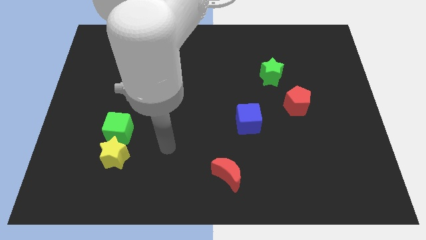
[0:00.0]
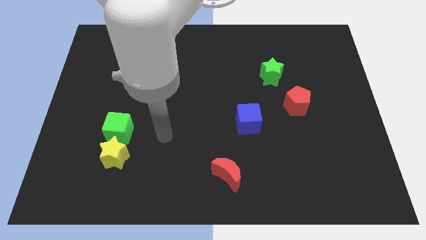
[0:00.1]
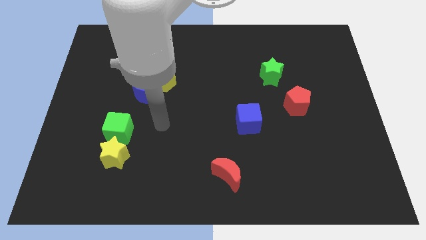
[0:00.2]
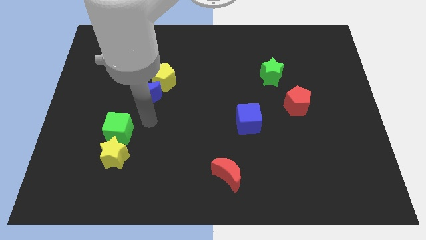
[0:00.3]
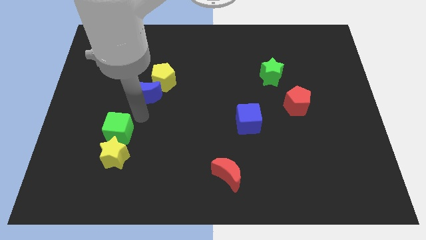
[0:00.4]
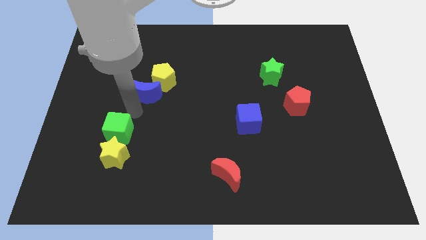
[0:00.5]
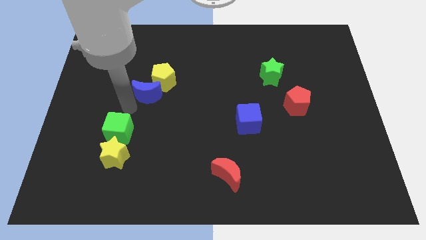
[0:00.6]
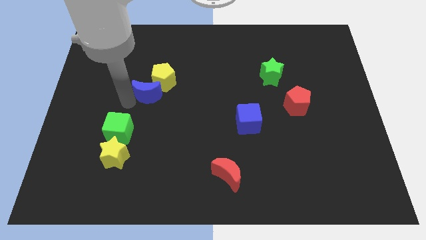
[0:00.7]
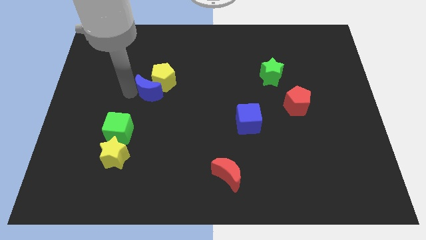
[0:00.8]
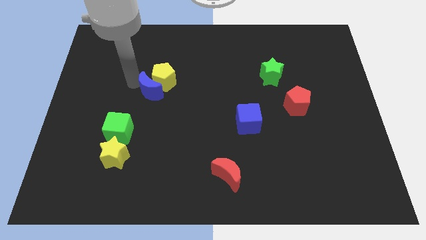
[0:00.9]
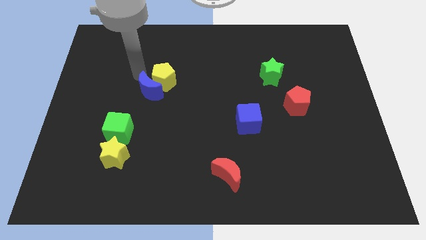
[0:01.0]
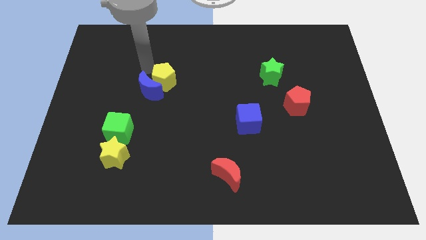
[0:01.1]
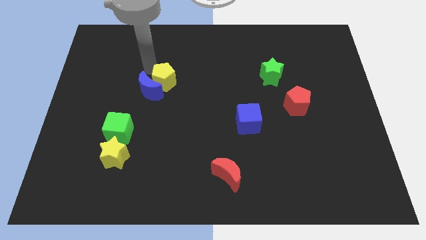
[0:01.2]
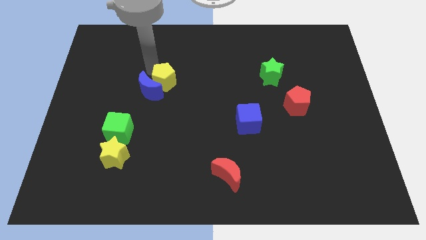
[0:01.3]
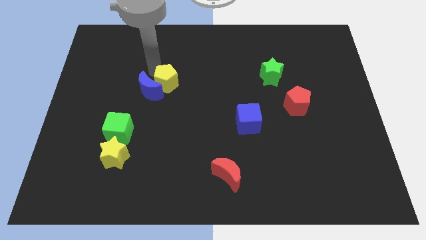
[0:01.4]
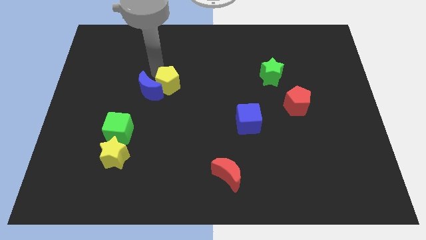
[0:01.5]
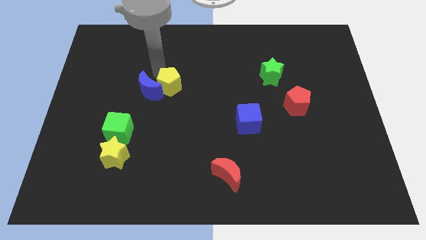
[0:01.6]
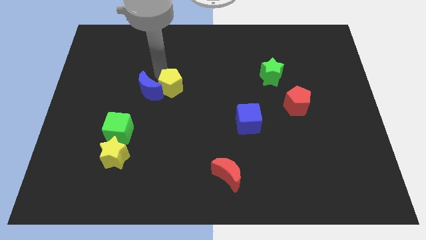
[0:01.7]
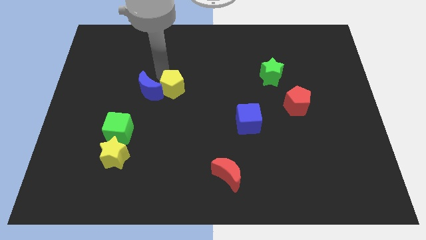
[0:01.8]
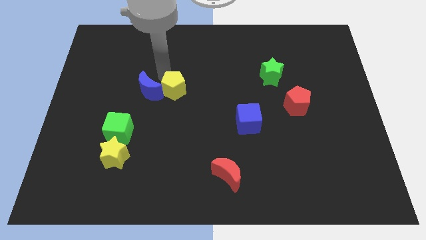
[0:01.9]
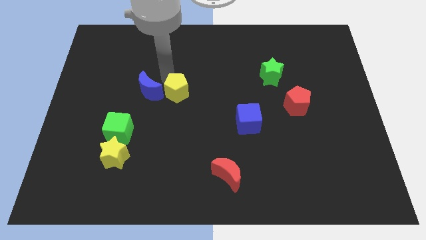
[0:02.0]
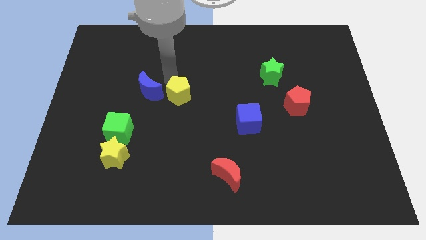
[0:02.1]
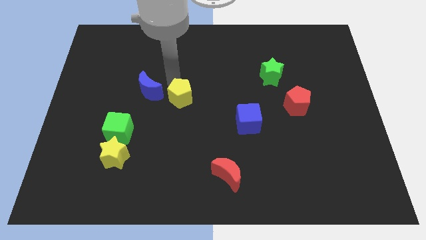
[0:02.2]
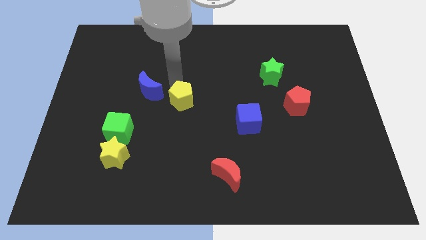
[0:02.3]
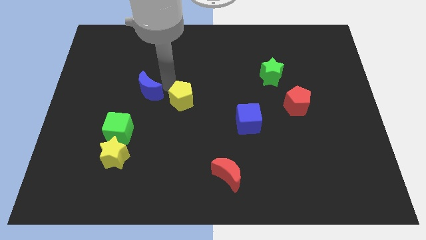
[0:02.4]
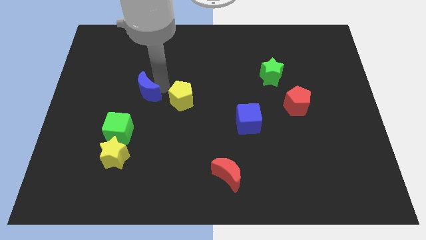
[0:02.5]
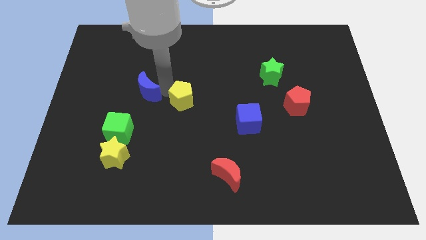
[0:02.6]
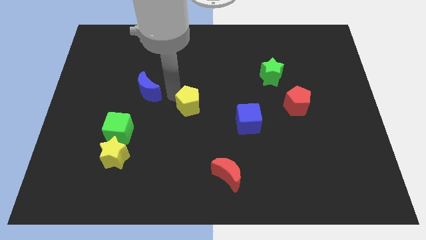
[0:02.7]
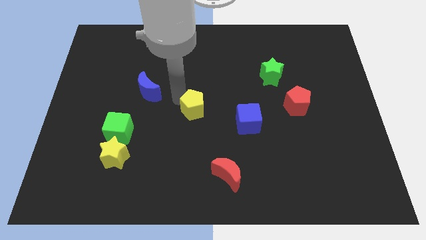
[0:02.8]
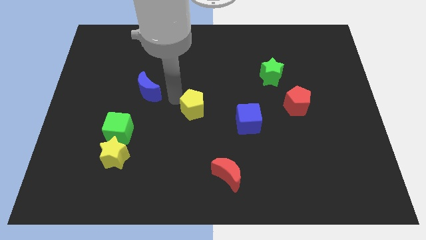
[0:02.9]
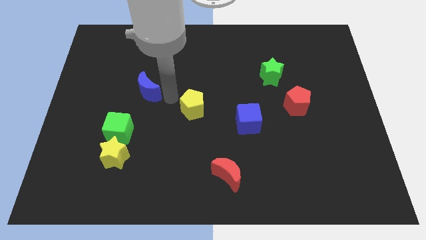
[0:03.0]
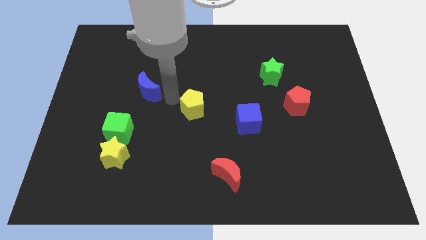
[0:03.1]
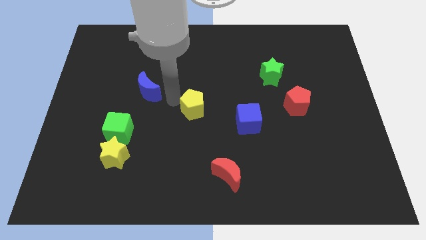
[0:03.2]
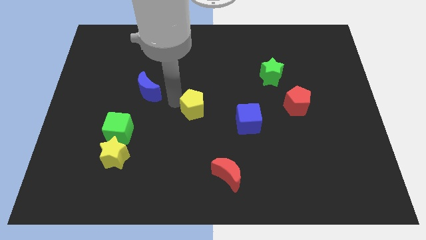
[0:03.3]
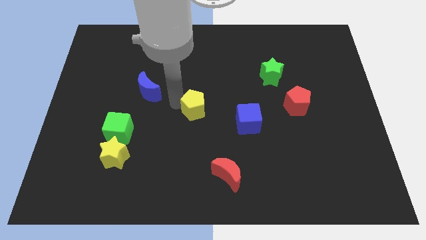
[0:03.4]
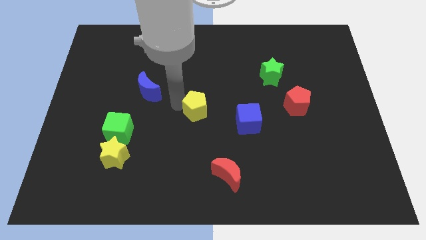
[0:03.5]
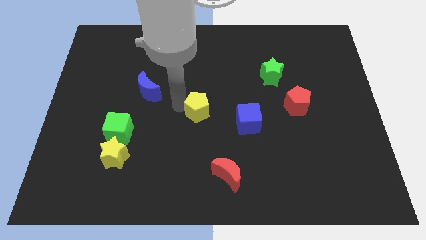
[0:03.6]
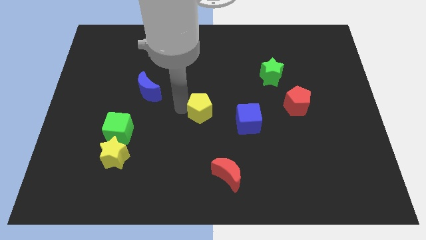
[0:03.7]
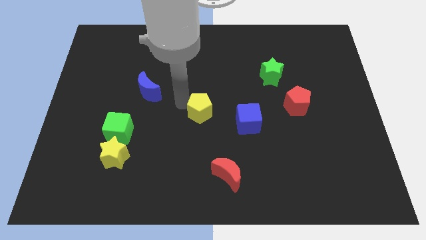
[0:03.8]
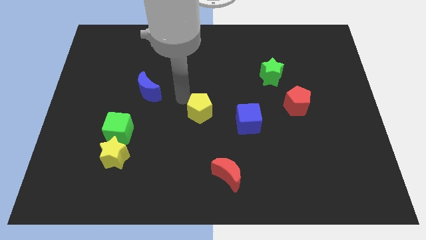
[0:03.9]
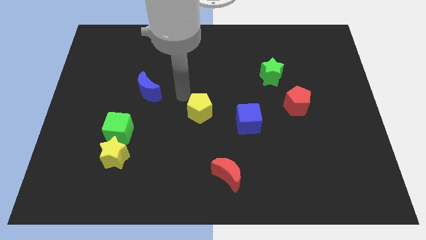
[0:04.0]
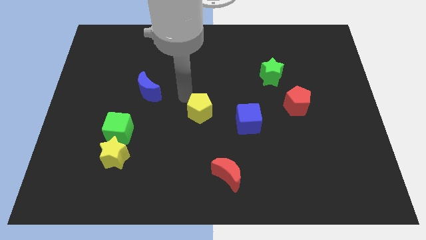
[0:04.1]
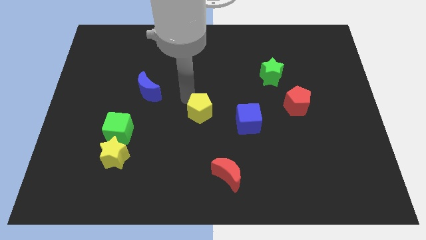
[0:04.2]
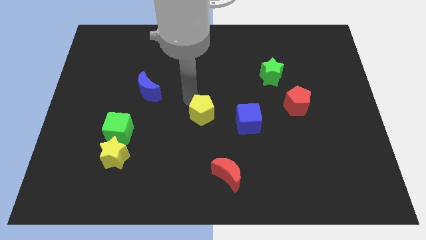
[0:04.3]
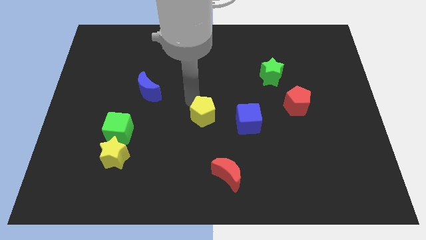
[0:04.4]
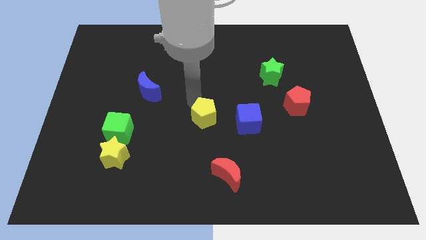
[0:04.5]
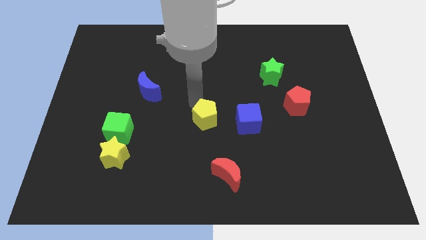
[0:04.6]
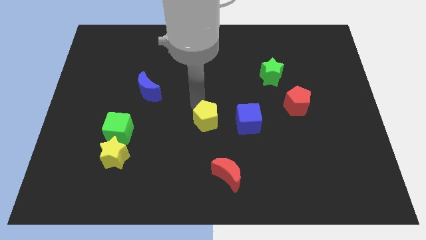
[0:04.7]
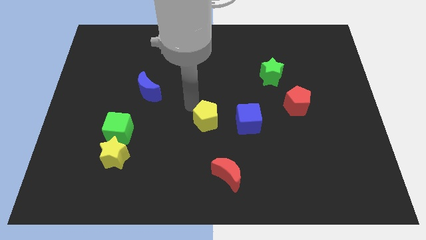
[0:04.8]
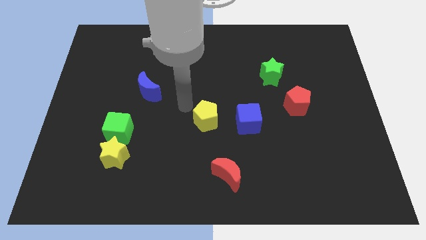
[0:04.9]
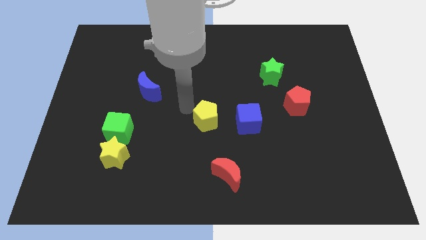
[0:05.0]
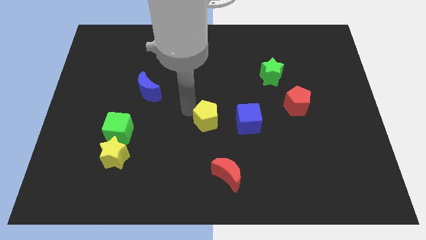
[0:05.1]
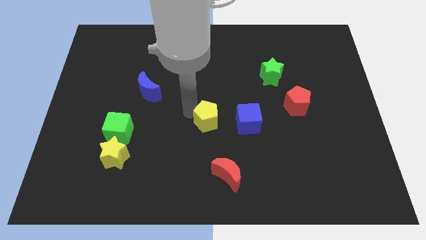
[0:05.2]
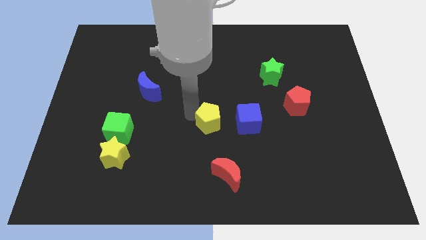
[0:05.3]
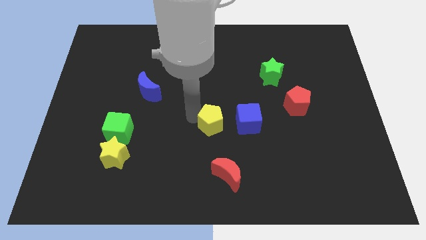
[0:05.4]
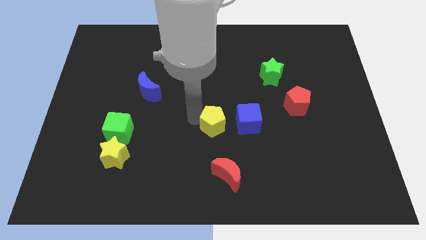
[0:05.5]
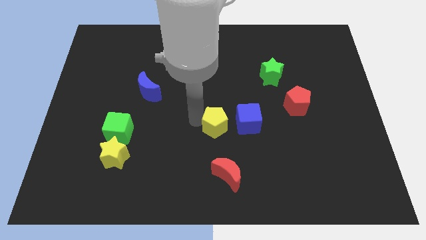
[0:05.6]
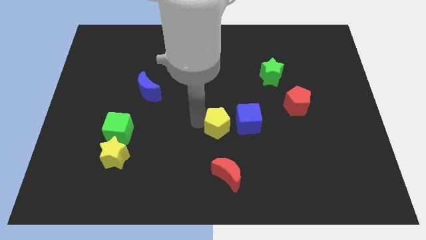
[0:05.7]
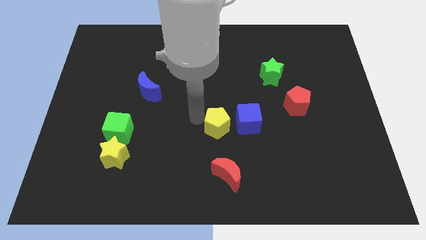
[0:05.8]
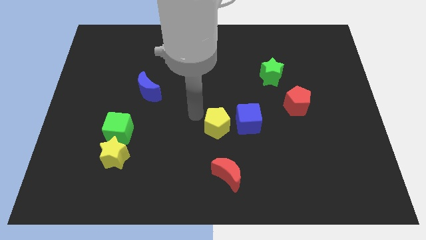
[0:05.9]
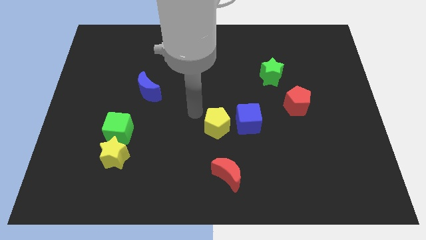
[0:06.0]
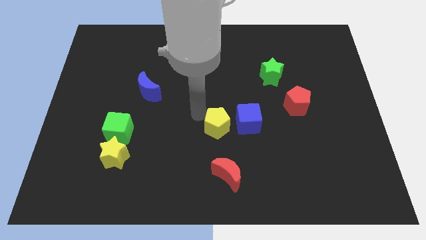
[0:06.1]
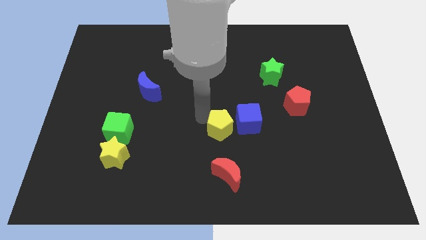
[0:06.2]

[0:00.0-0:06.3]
slide the yellow pentagon downwards and right

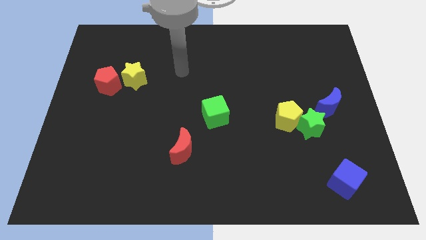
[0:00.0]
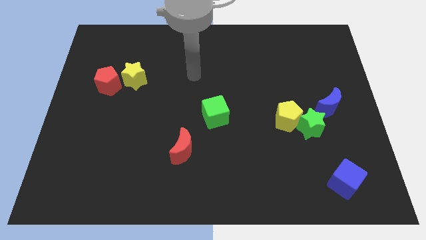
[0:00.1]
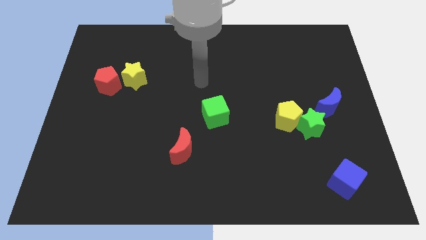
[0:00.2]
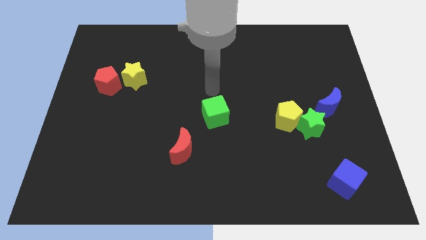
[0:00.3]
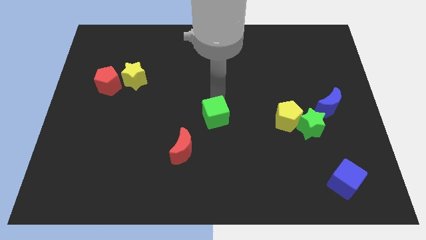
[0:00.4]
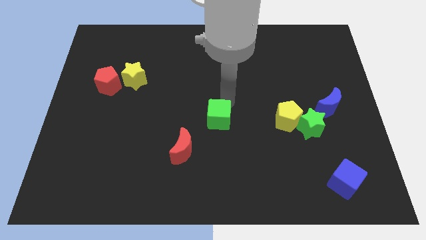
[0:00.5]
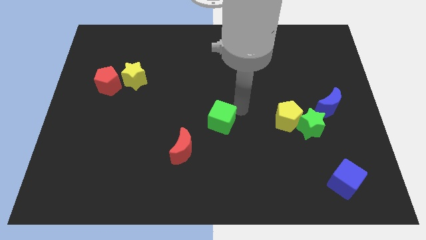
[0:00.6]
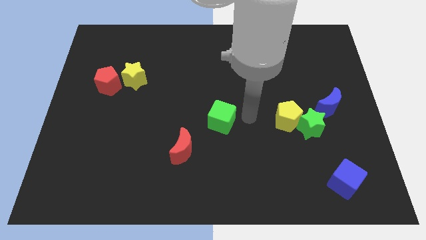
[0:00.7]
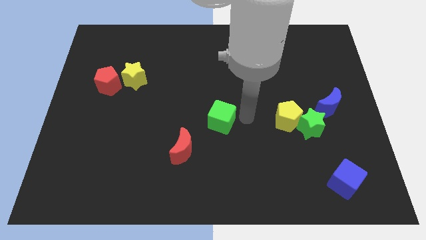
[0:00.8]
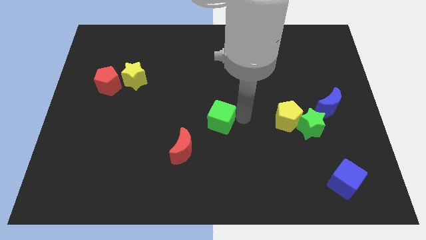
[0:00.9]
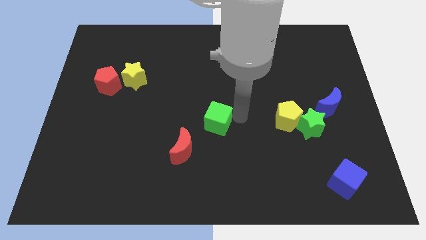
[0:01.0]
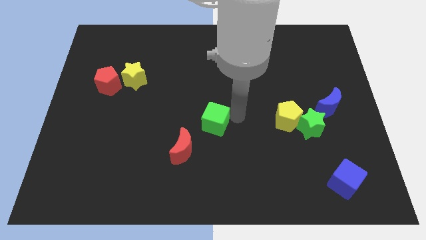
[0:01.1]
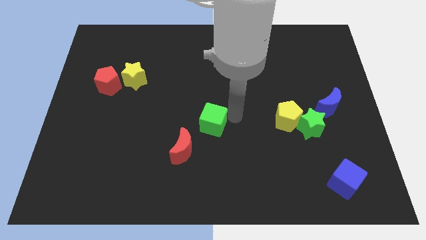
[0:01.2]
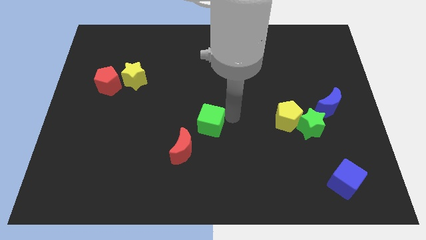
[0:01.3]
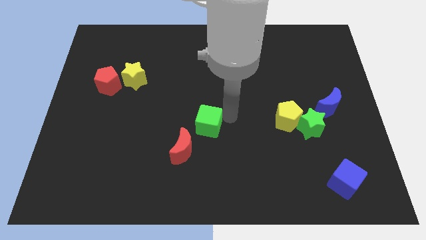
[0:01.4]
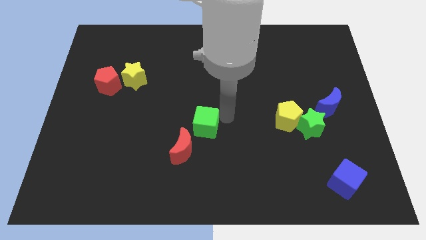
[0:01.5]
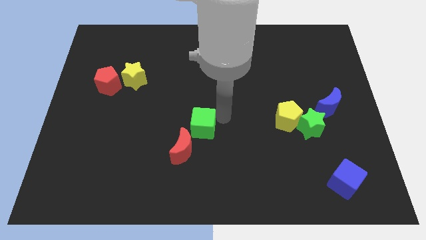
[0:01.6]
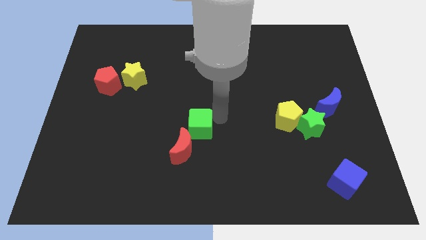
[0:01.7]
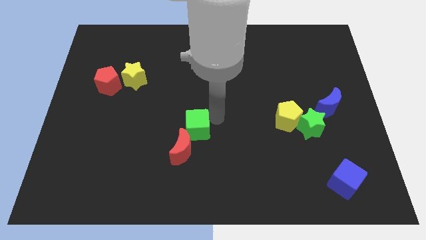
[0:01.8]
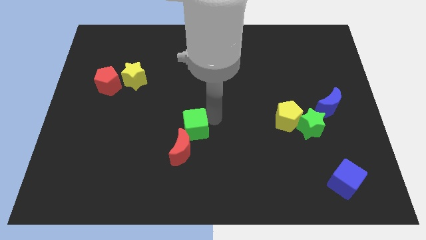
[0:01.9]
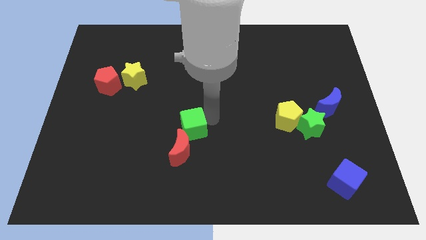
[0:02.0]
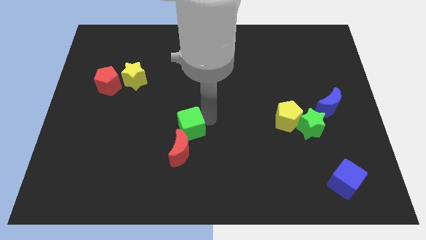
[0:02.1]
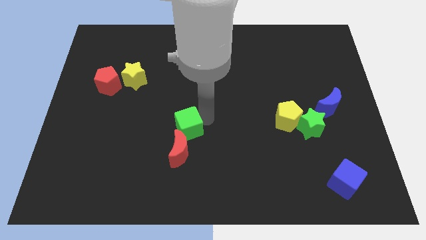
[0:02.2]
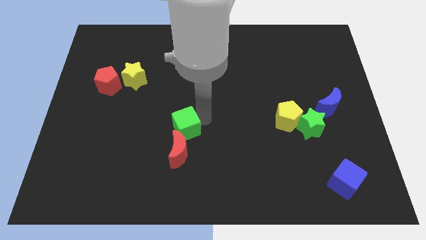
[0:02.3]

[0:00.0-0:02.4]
slide the green cube slightly downwards and left diagonally
